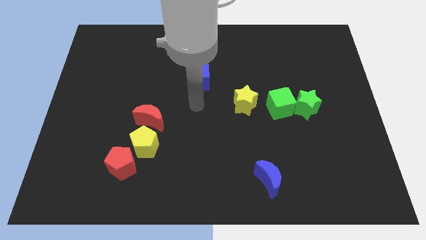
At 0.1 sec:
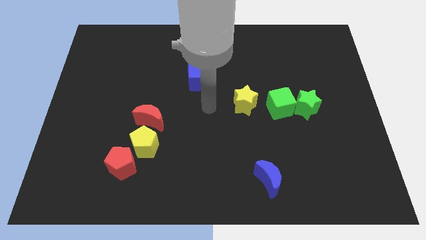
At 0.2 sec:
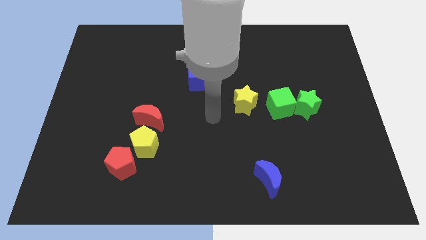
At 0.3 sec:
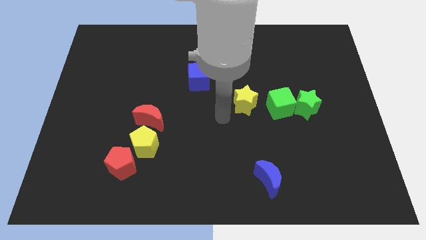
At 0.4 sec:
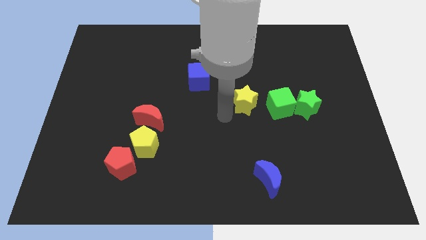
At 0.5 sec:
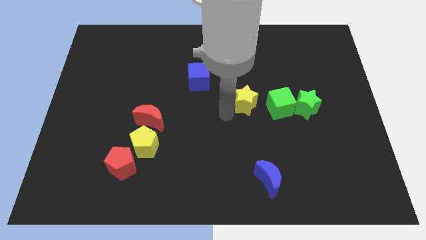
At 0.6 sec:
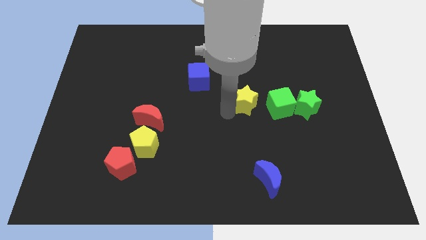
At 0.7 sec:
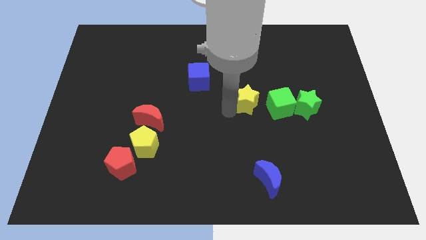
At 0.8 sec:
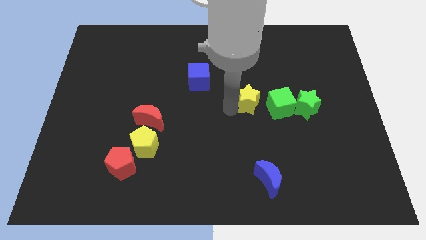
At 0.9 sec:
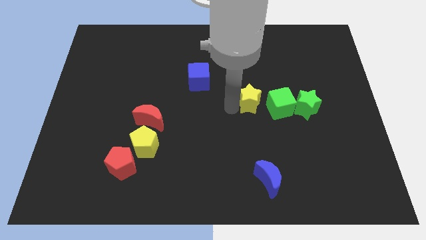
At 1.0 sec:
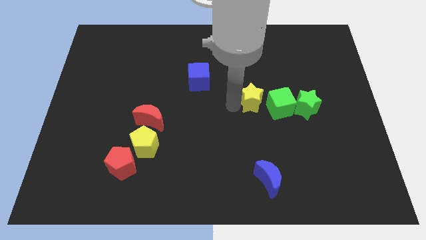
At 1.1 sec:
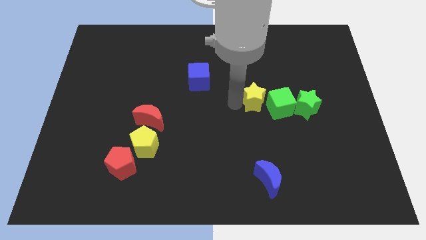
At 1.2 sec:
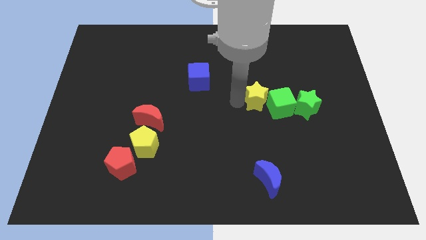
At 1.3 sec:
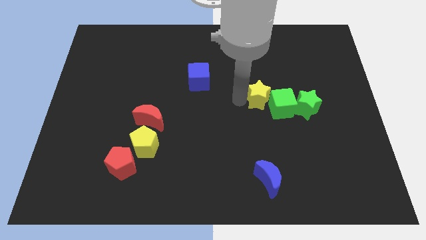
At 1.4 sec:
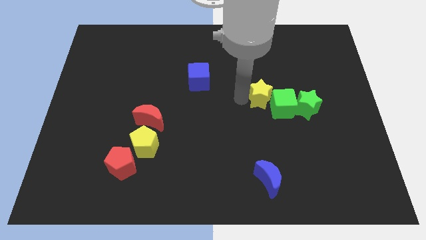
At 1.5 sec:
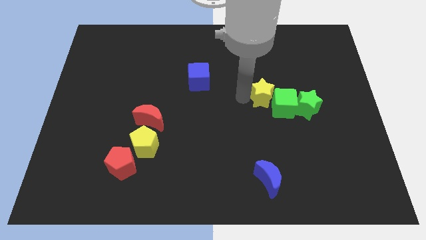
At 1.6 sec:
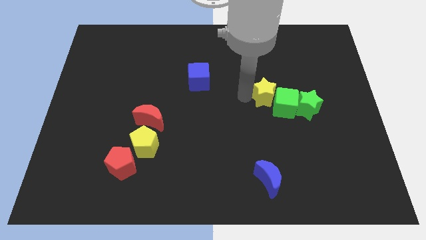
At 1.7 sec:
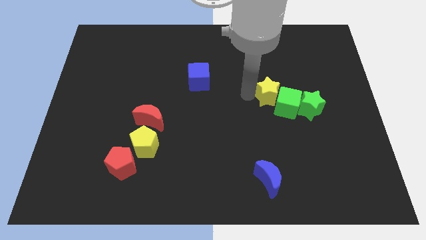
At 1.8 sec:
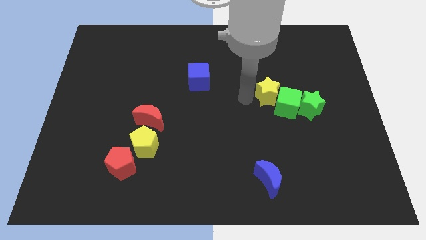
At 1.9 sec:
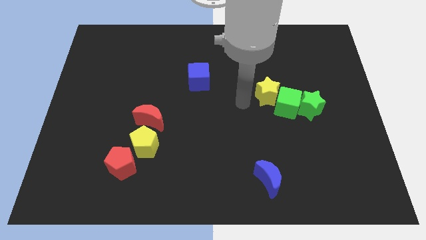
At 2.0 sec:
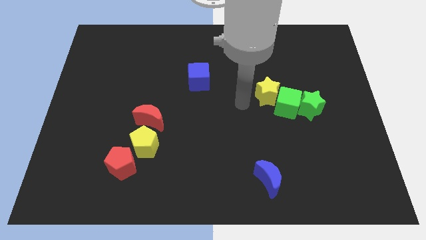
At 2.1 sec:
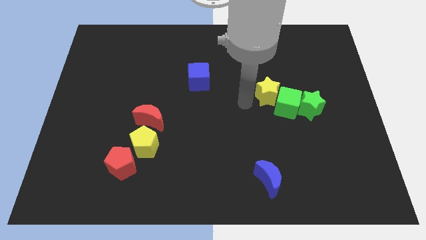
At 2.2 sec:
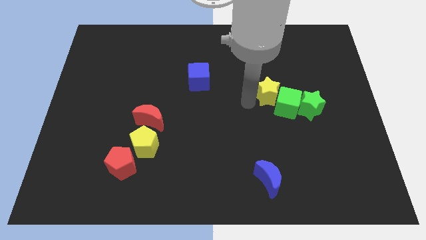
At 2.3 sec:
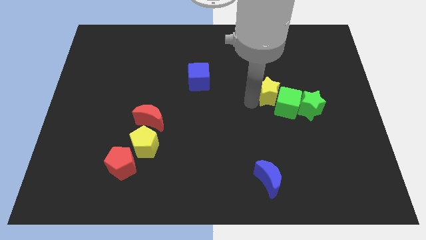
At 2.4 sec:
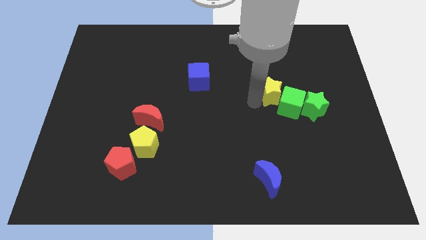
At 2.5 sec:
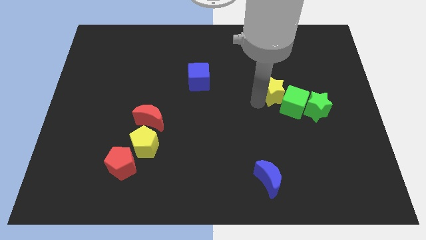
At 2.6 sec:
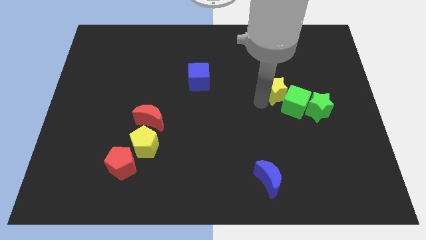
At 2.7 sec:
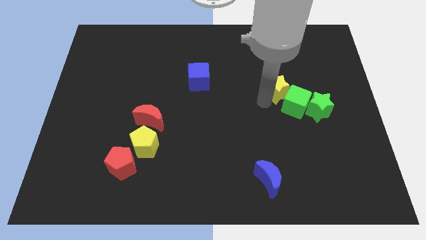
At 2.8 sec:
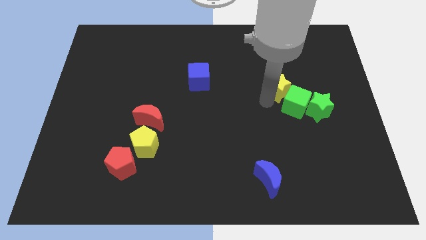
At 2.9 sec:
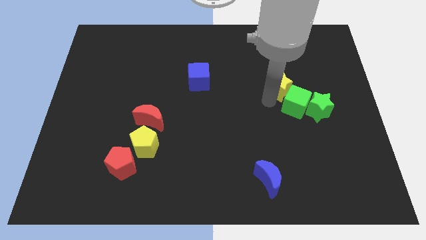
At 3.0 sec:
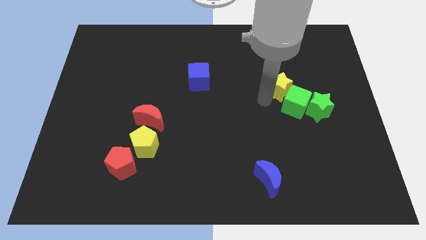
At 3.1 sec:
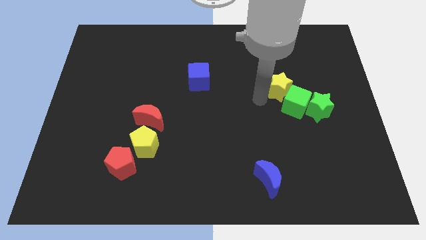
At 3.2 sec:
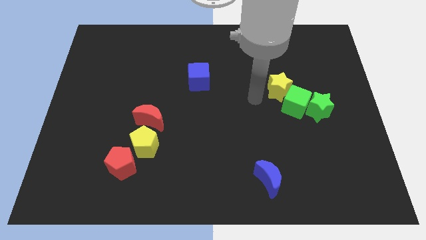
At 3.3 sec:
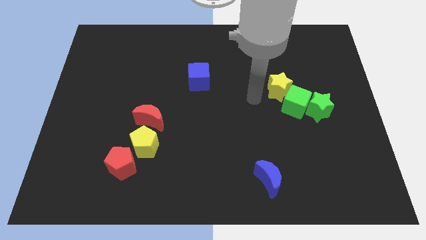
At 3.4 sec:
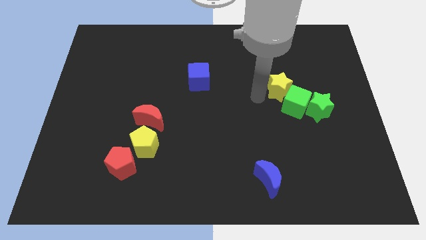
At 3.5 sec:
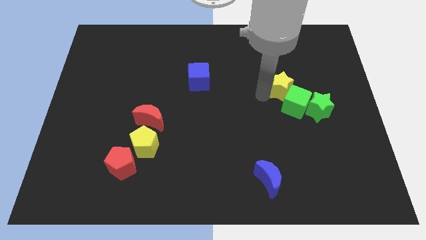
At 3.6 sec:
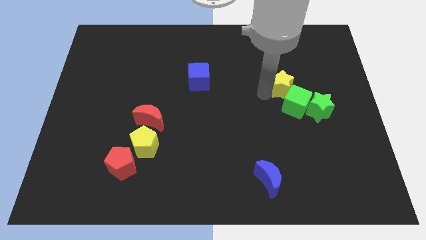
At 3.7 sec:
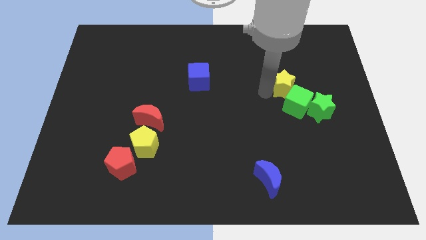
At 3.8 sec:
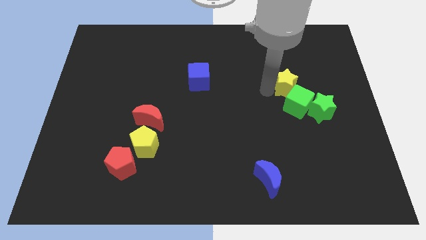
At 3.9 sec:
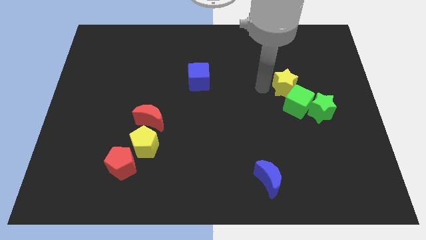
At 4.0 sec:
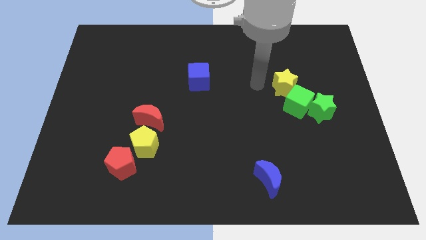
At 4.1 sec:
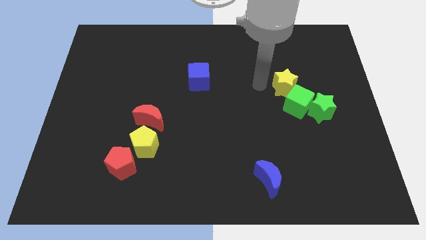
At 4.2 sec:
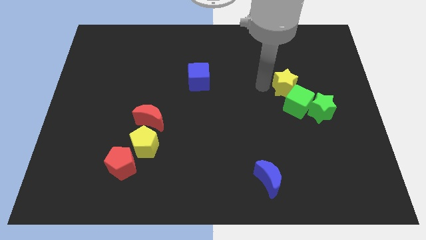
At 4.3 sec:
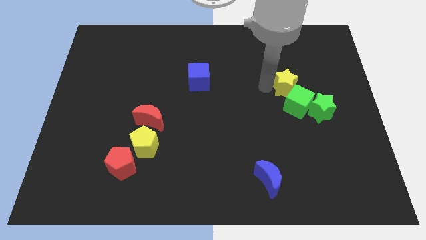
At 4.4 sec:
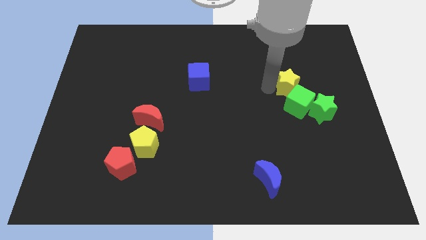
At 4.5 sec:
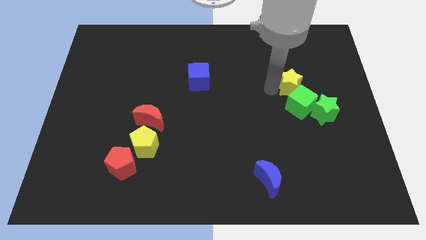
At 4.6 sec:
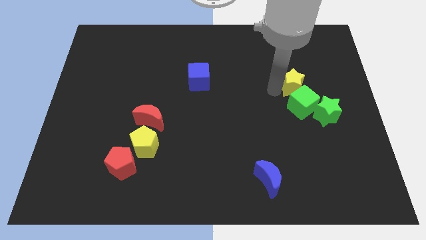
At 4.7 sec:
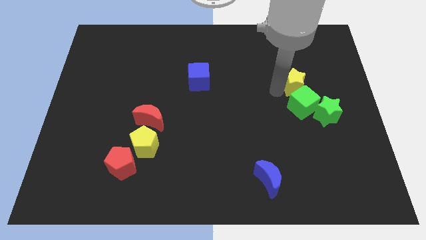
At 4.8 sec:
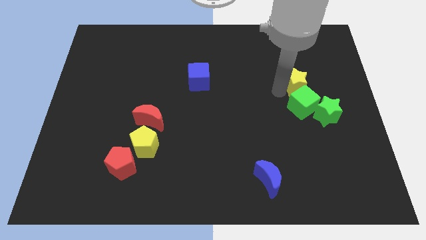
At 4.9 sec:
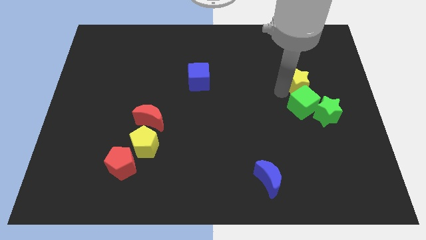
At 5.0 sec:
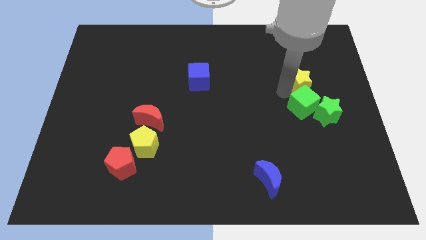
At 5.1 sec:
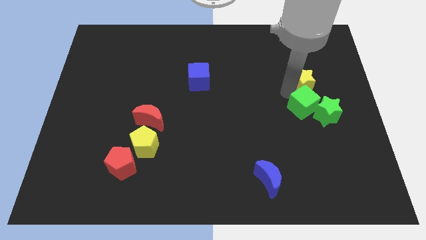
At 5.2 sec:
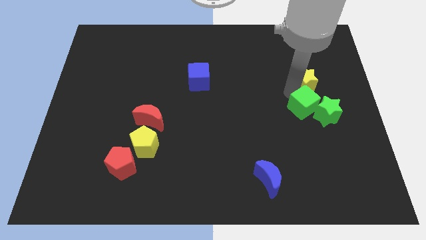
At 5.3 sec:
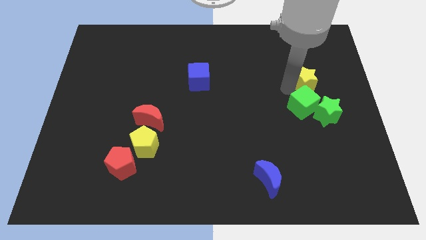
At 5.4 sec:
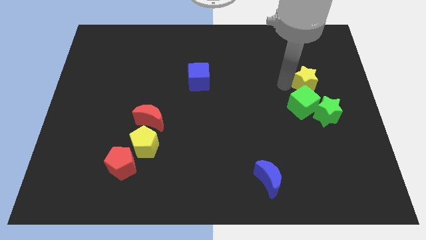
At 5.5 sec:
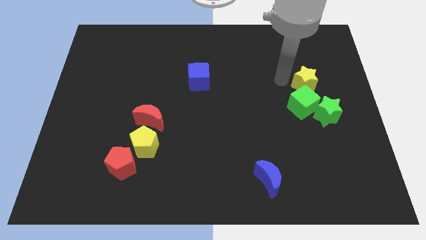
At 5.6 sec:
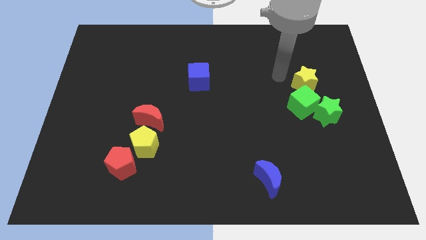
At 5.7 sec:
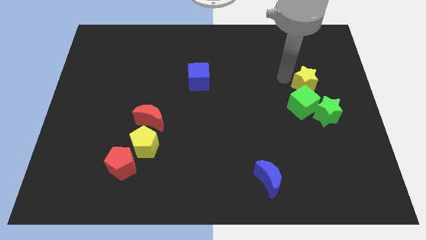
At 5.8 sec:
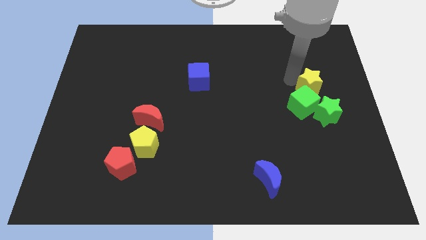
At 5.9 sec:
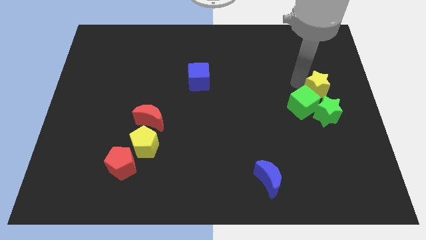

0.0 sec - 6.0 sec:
put the yellow star to the right side of the board

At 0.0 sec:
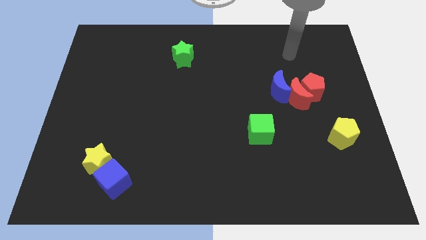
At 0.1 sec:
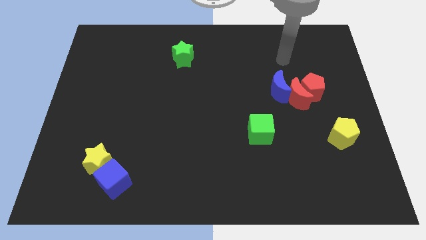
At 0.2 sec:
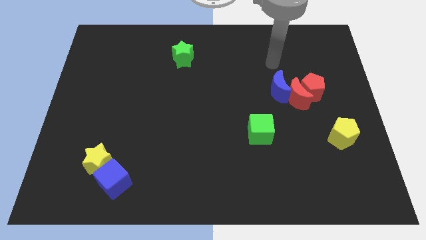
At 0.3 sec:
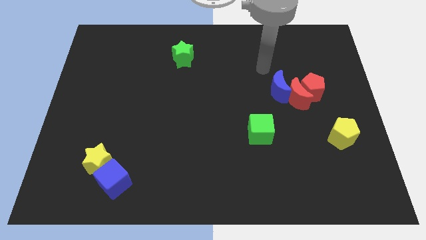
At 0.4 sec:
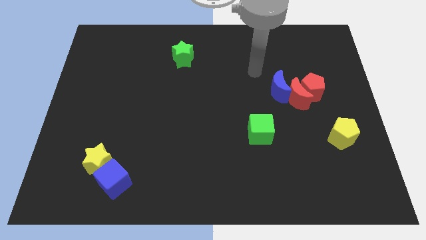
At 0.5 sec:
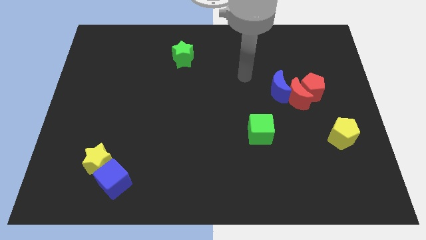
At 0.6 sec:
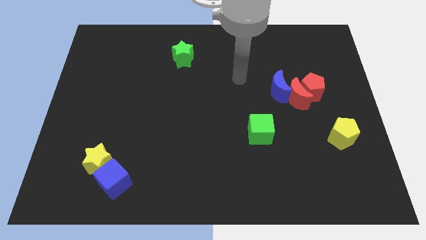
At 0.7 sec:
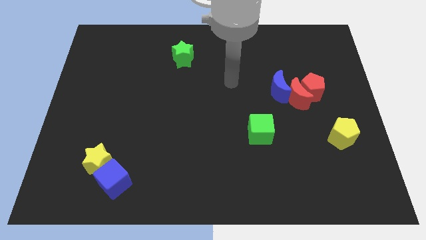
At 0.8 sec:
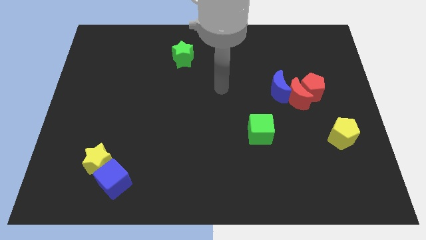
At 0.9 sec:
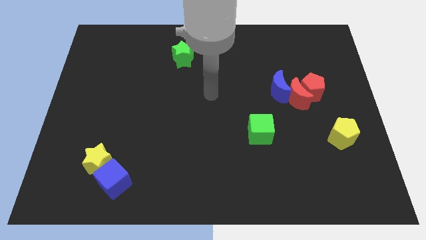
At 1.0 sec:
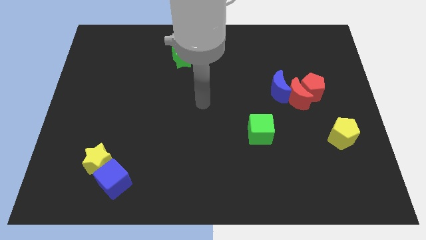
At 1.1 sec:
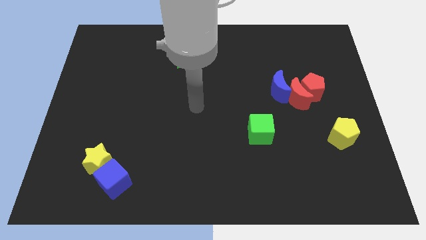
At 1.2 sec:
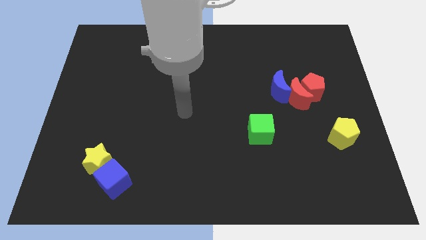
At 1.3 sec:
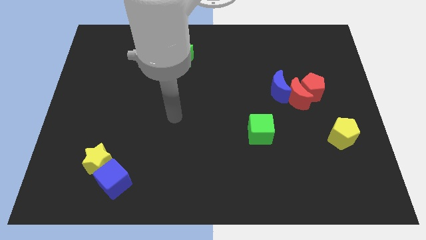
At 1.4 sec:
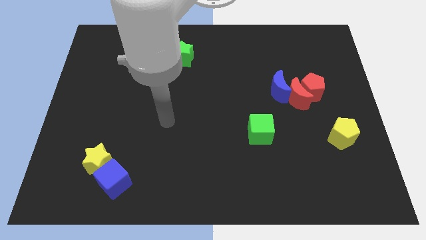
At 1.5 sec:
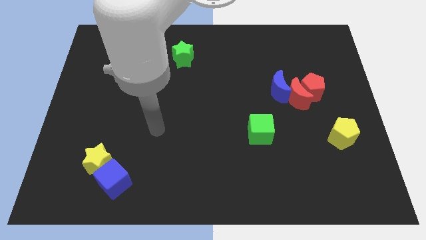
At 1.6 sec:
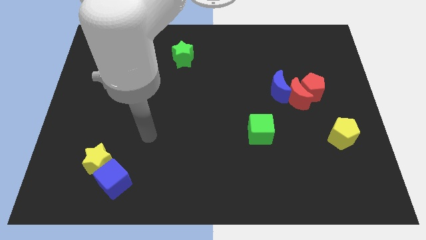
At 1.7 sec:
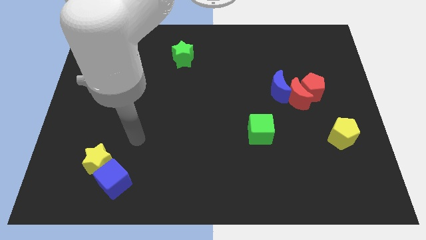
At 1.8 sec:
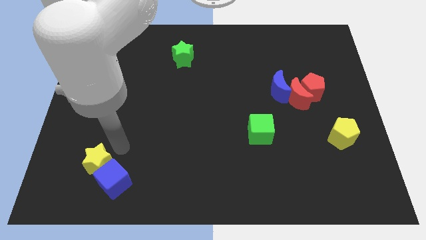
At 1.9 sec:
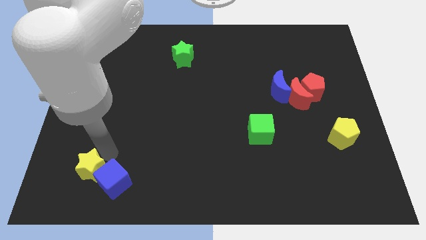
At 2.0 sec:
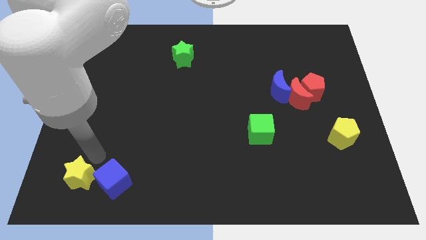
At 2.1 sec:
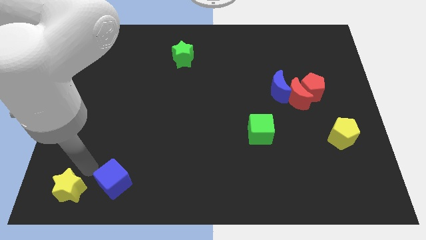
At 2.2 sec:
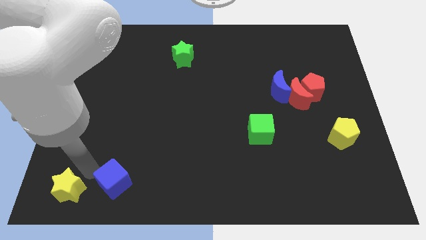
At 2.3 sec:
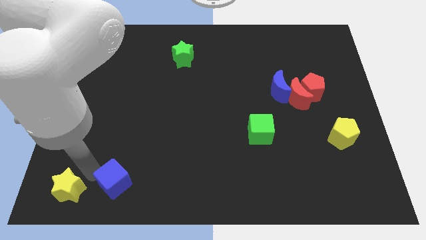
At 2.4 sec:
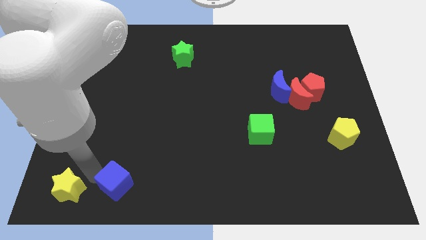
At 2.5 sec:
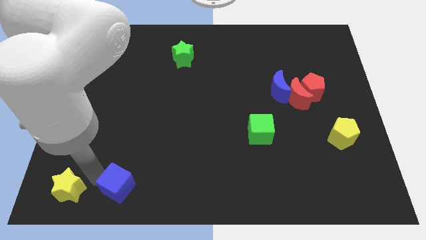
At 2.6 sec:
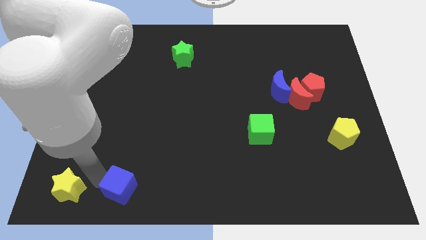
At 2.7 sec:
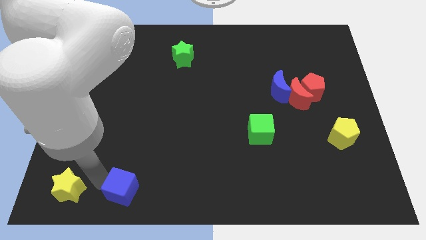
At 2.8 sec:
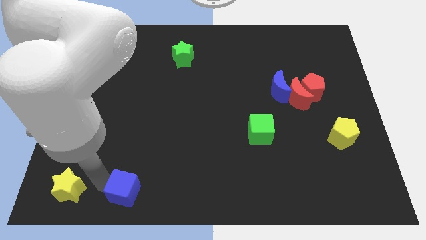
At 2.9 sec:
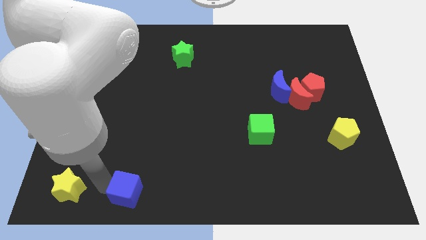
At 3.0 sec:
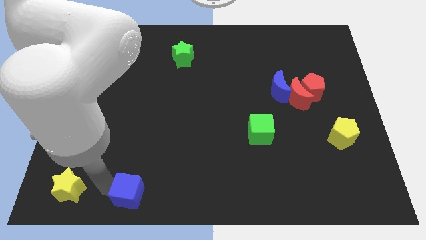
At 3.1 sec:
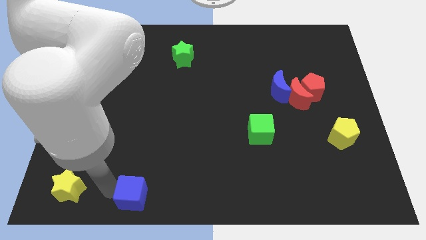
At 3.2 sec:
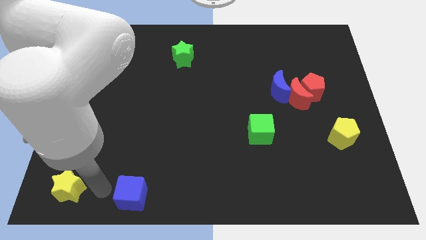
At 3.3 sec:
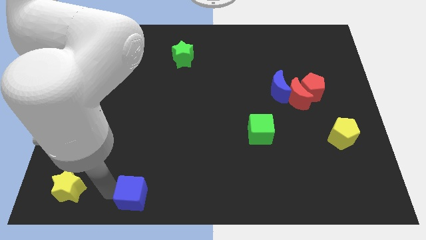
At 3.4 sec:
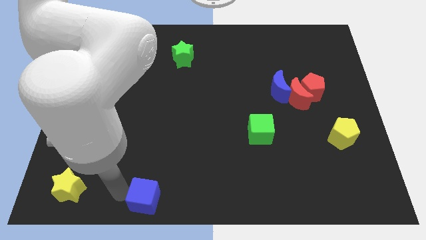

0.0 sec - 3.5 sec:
slide the blue cube to the bottom
